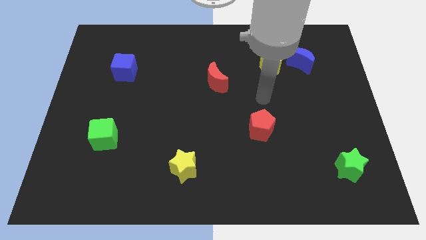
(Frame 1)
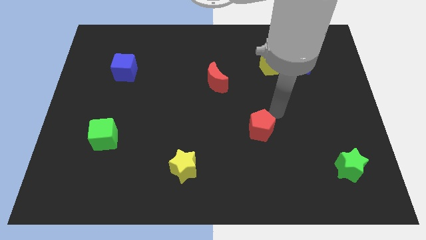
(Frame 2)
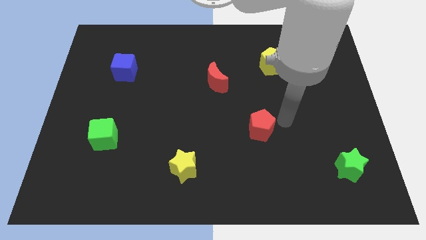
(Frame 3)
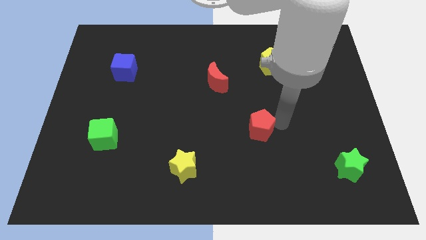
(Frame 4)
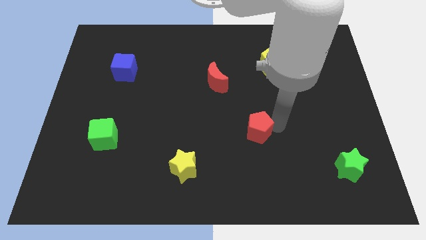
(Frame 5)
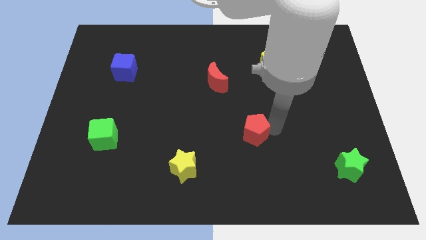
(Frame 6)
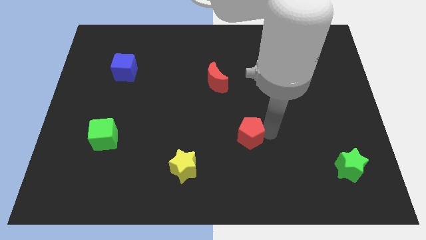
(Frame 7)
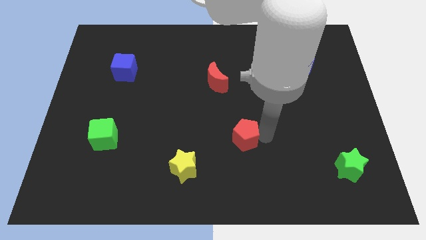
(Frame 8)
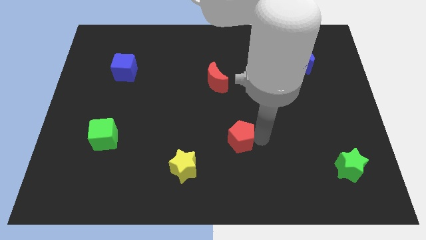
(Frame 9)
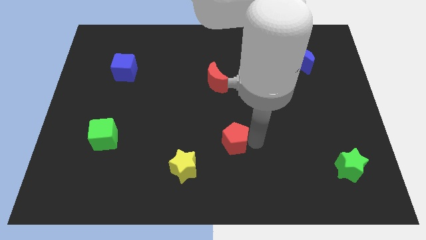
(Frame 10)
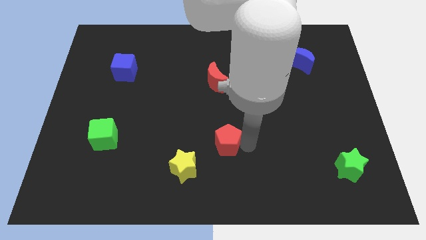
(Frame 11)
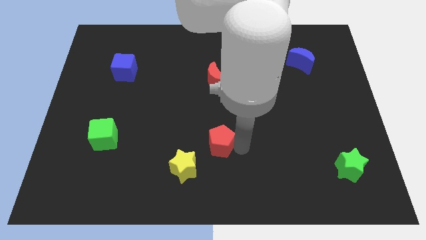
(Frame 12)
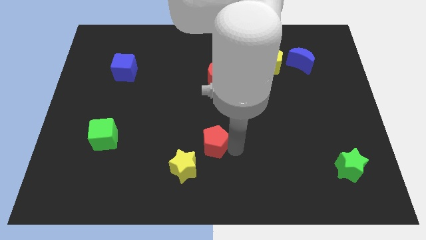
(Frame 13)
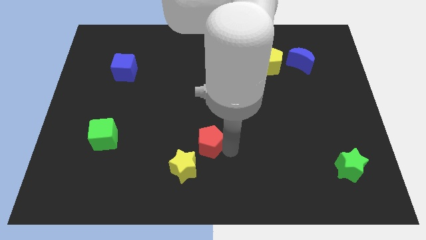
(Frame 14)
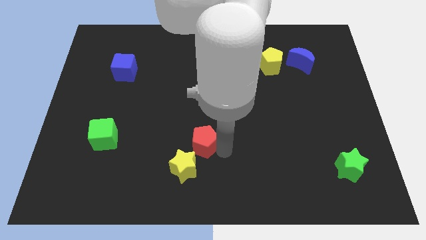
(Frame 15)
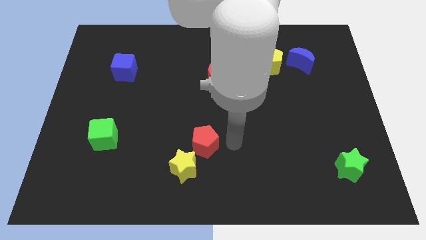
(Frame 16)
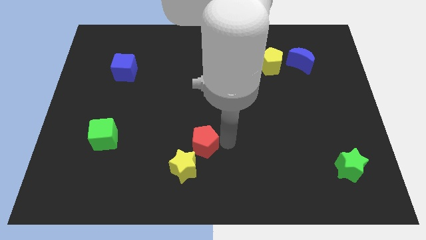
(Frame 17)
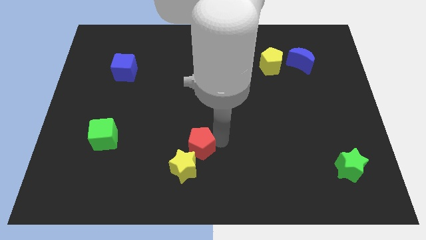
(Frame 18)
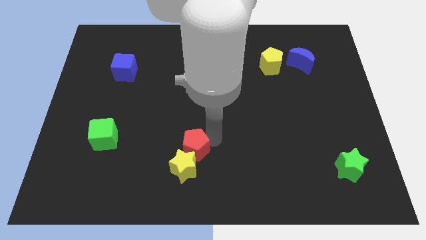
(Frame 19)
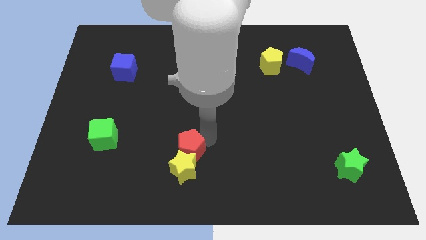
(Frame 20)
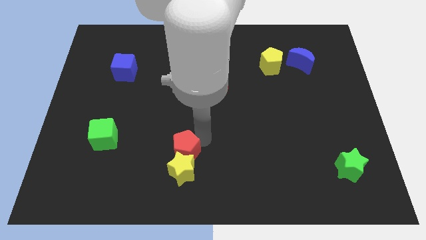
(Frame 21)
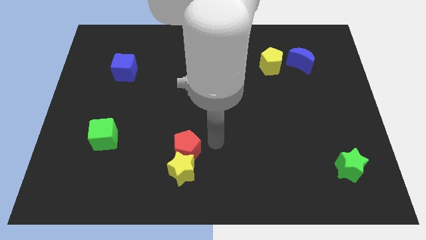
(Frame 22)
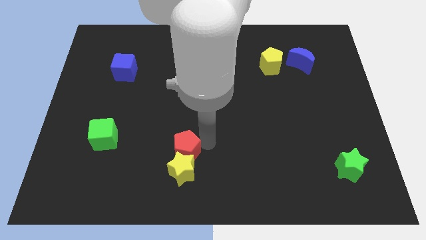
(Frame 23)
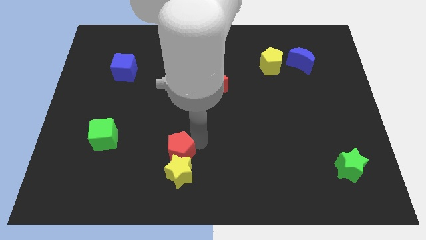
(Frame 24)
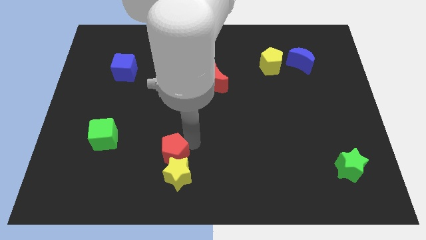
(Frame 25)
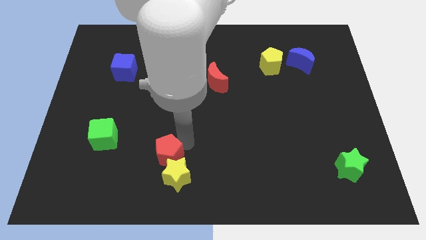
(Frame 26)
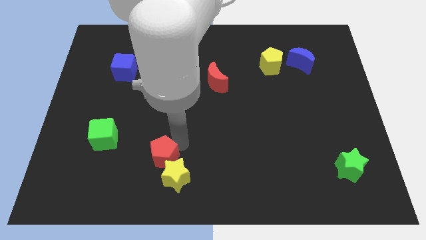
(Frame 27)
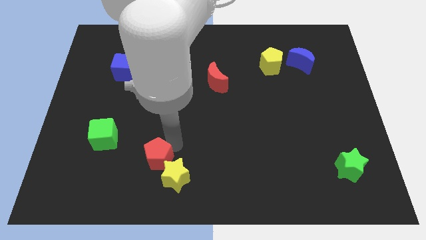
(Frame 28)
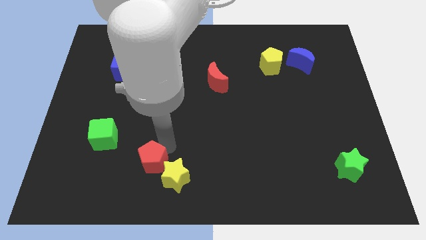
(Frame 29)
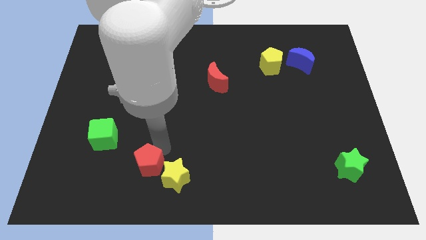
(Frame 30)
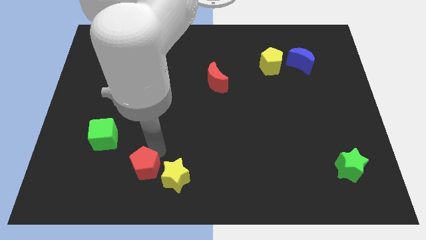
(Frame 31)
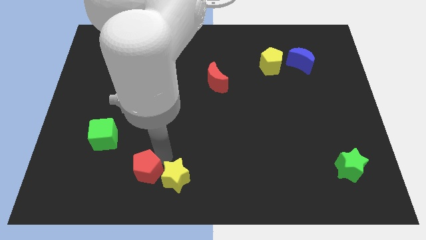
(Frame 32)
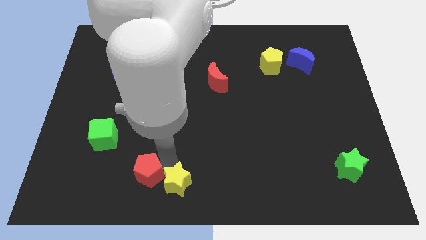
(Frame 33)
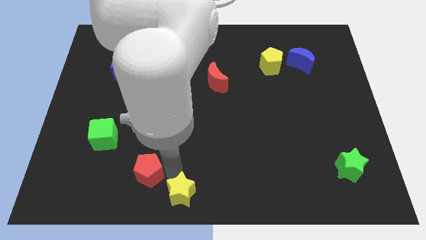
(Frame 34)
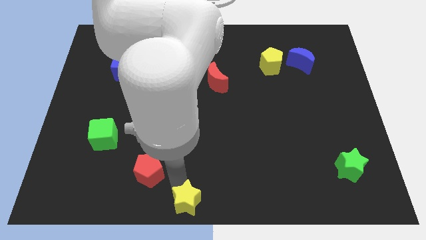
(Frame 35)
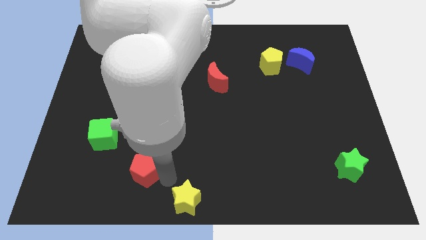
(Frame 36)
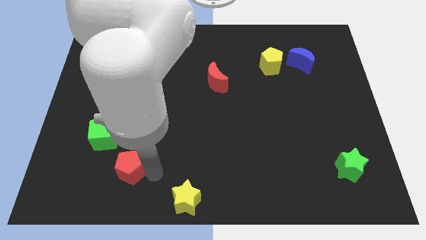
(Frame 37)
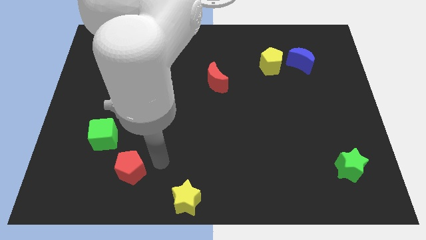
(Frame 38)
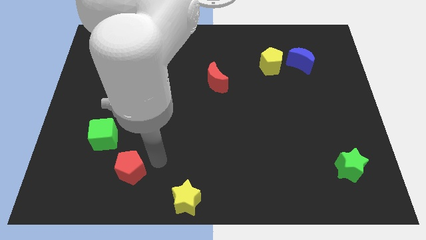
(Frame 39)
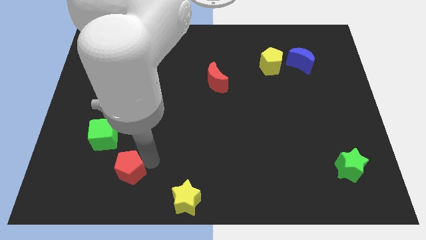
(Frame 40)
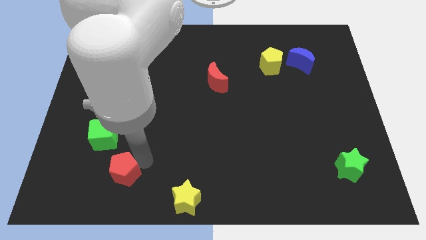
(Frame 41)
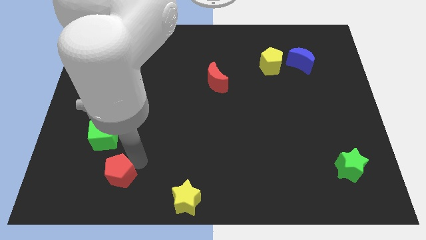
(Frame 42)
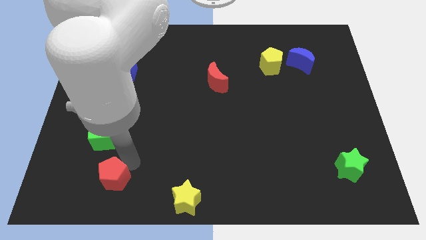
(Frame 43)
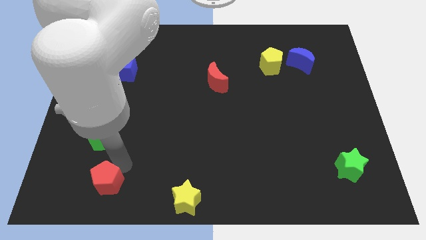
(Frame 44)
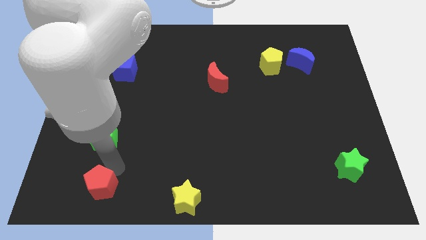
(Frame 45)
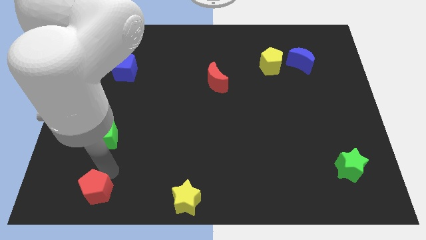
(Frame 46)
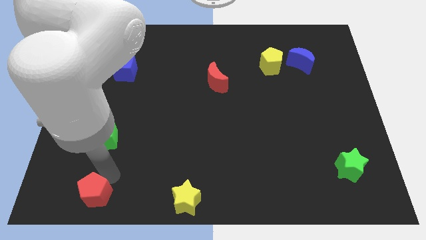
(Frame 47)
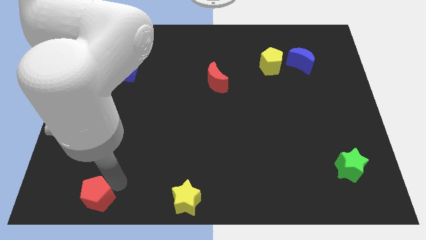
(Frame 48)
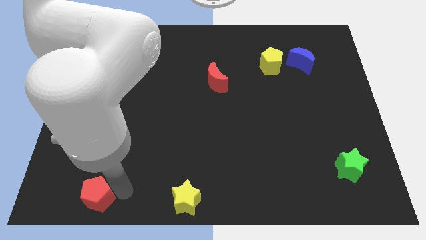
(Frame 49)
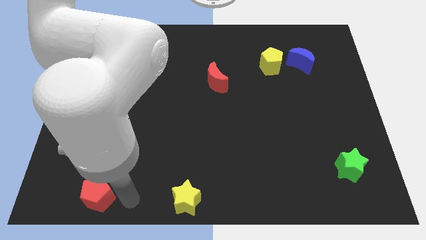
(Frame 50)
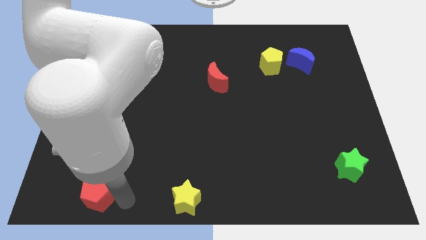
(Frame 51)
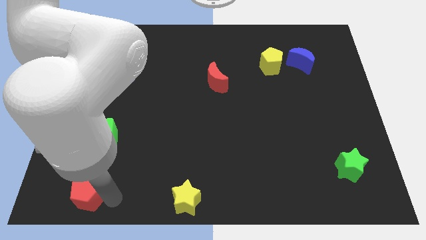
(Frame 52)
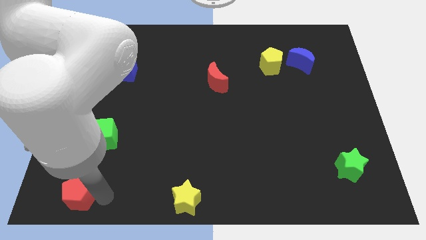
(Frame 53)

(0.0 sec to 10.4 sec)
slide the red pentagon to the bottom left

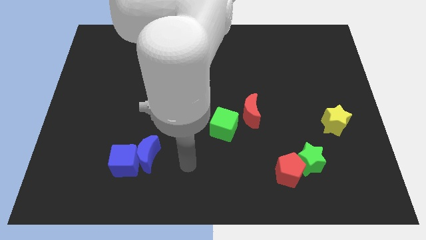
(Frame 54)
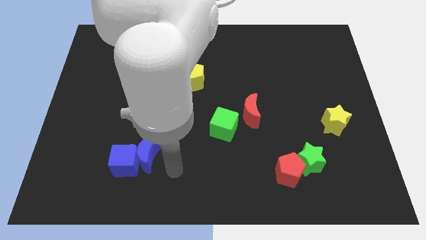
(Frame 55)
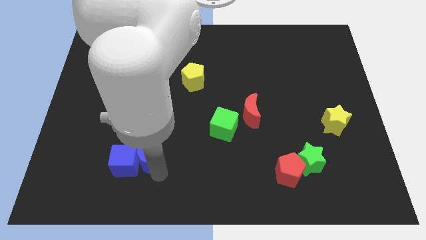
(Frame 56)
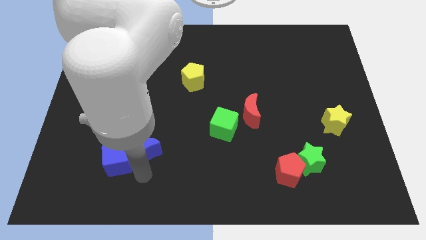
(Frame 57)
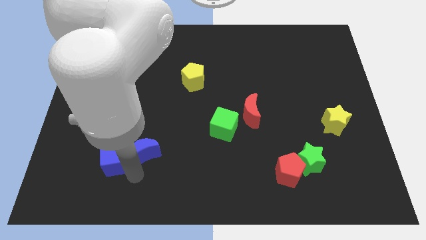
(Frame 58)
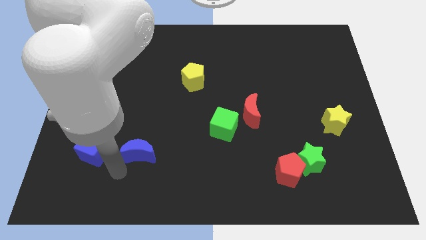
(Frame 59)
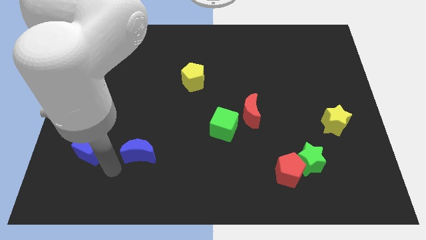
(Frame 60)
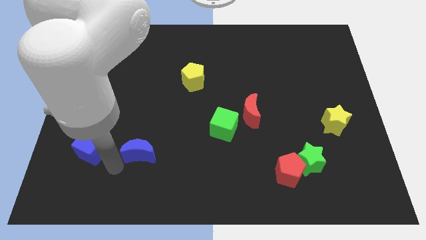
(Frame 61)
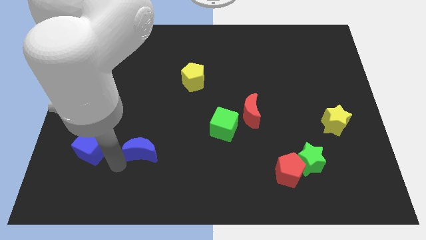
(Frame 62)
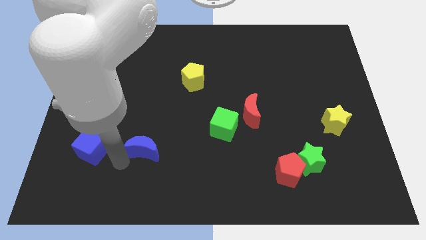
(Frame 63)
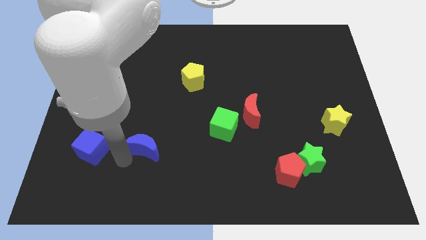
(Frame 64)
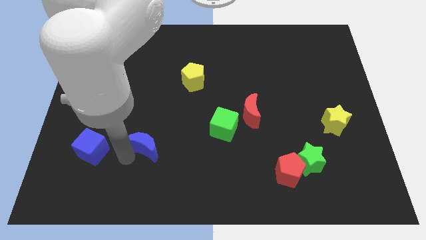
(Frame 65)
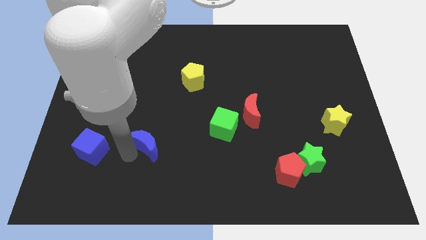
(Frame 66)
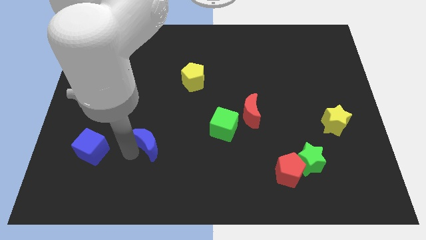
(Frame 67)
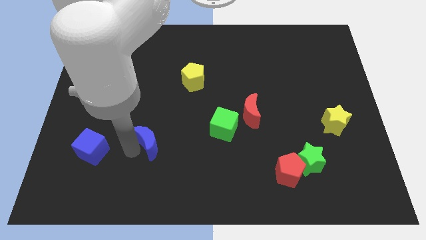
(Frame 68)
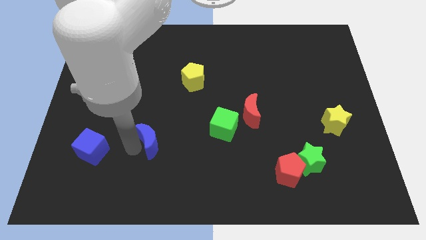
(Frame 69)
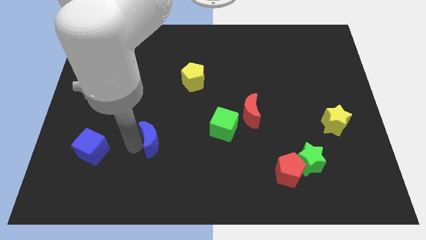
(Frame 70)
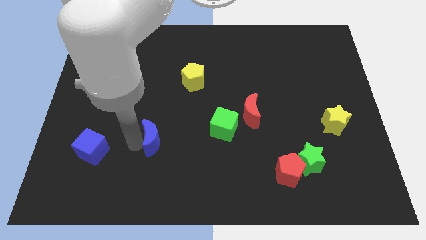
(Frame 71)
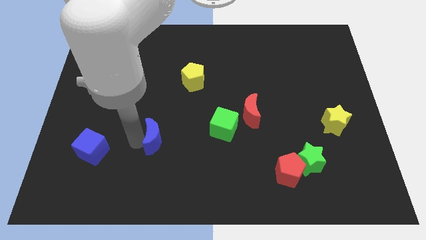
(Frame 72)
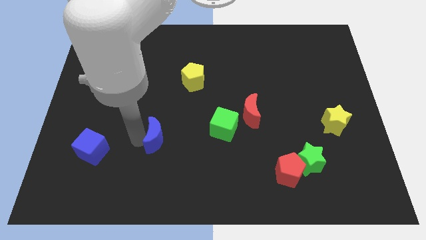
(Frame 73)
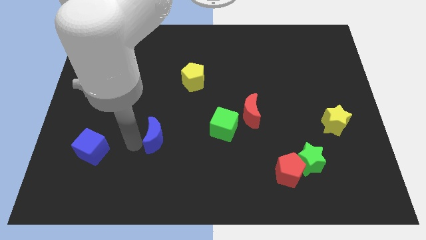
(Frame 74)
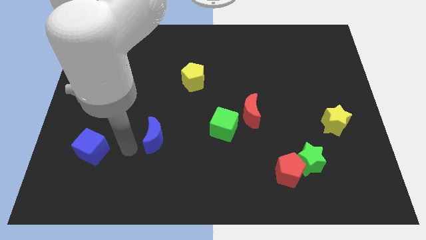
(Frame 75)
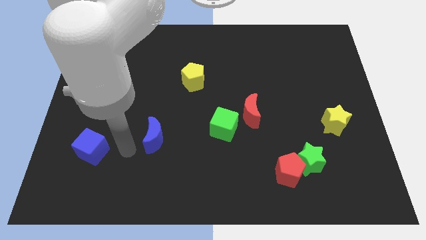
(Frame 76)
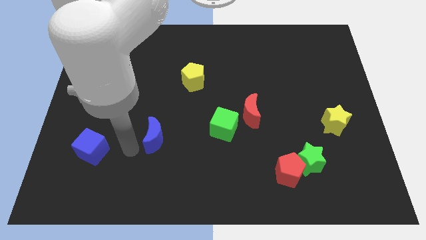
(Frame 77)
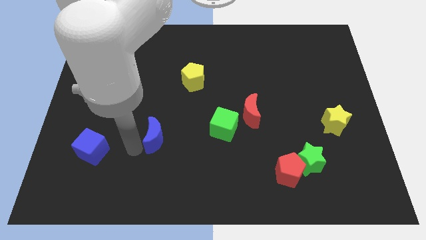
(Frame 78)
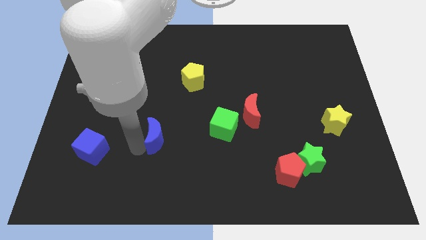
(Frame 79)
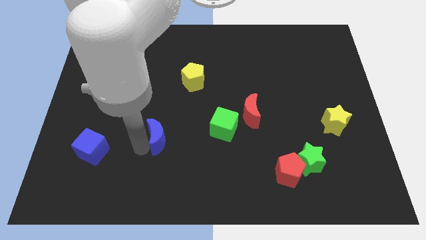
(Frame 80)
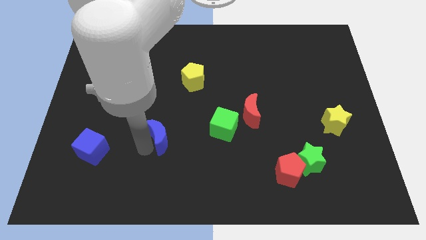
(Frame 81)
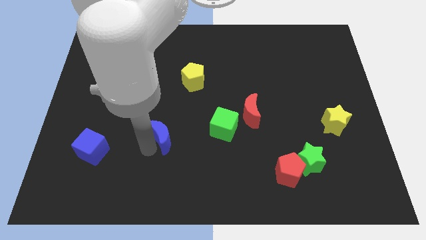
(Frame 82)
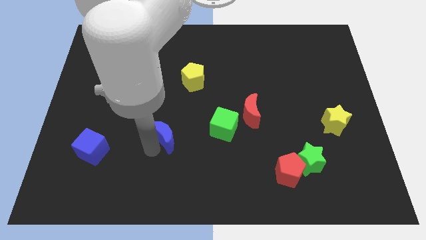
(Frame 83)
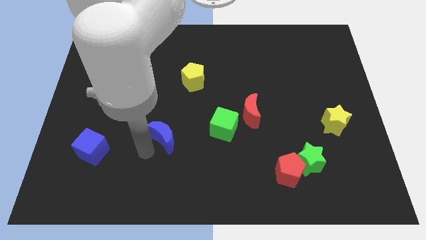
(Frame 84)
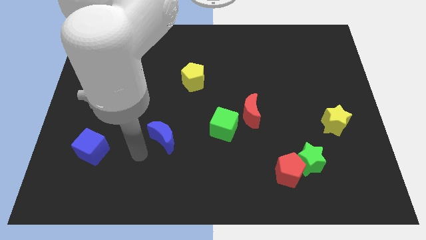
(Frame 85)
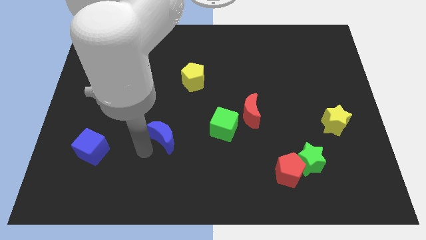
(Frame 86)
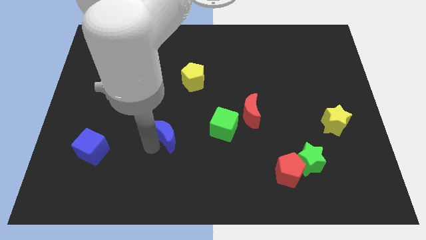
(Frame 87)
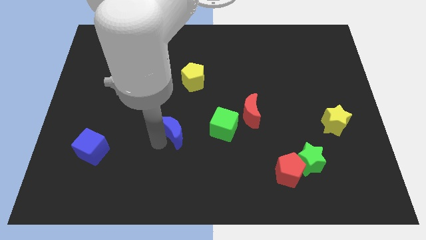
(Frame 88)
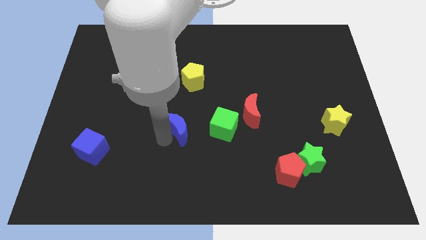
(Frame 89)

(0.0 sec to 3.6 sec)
slide the blue moon to the center of the board
